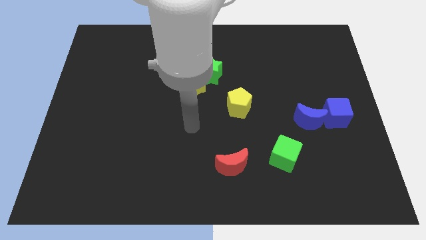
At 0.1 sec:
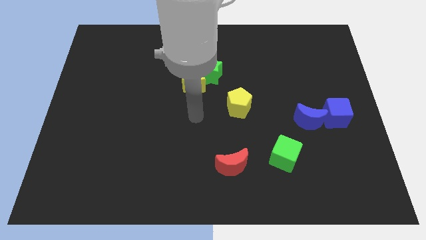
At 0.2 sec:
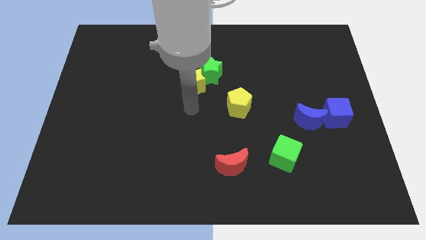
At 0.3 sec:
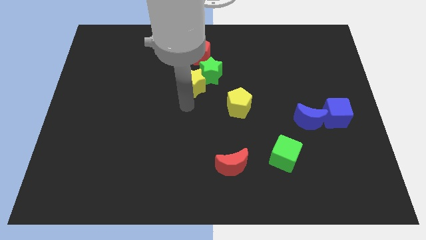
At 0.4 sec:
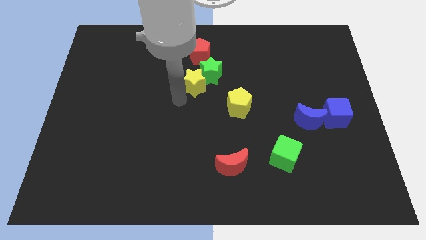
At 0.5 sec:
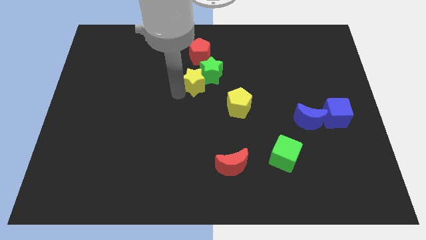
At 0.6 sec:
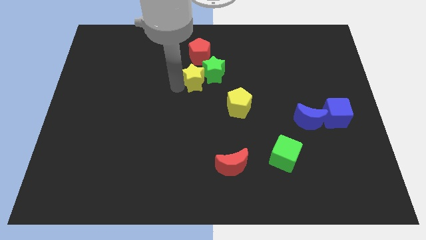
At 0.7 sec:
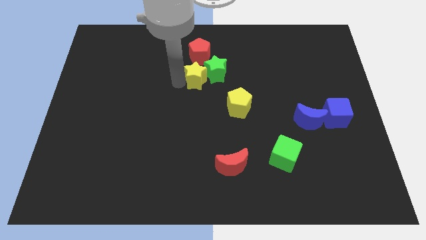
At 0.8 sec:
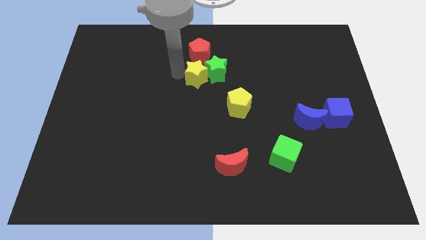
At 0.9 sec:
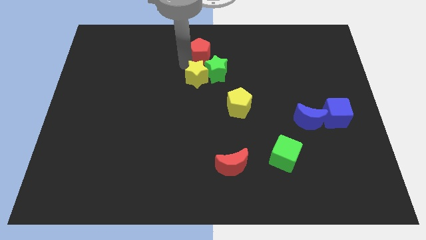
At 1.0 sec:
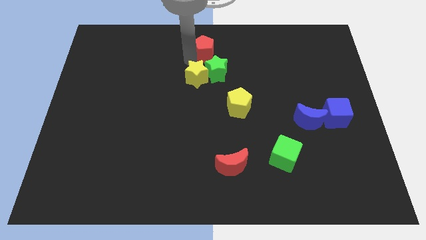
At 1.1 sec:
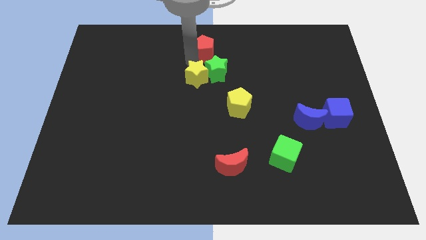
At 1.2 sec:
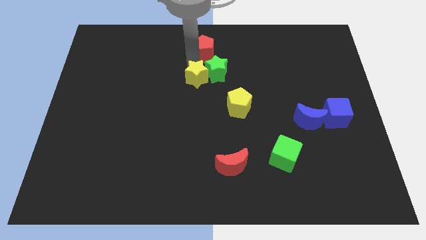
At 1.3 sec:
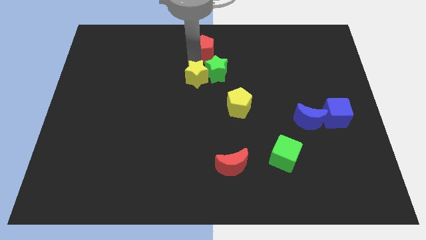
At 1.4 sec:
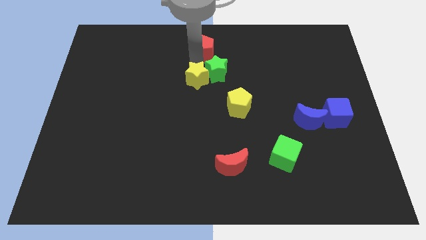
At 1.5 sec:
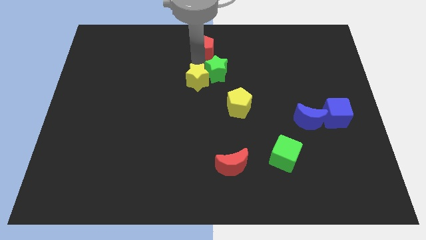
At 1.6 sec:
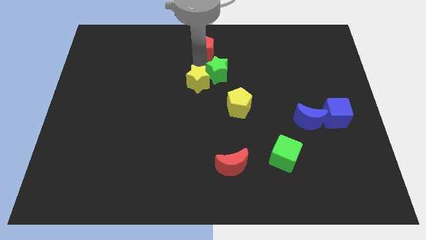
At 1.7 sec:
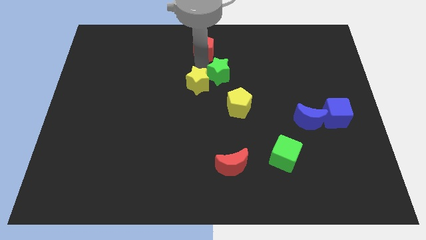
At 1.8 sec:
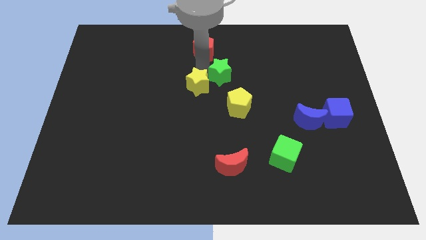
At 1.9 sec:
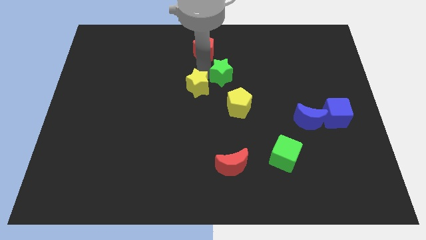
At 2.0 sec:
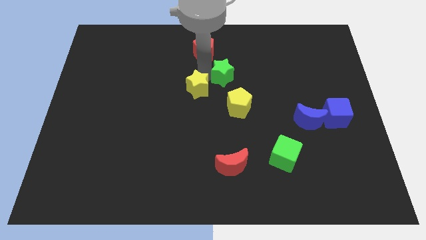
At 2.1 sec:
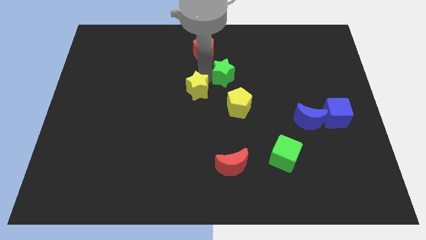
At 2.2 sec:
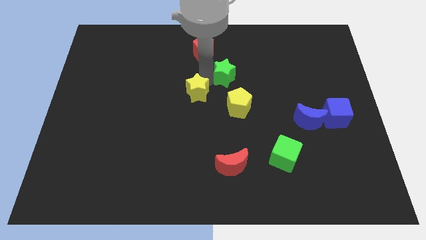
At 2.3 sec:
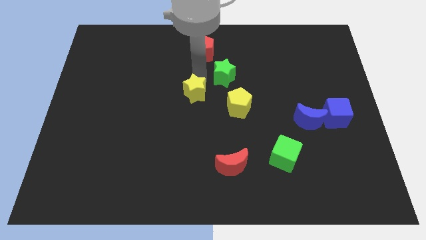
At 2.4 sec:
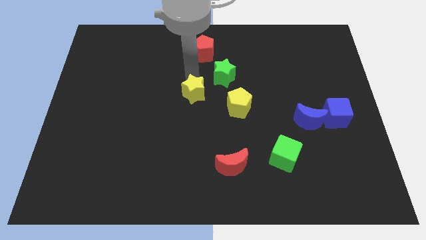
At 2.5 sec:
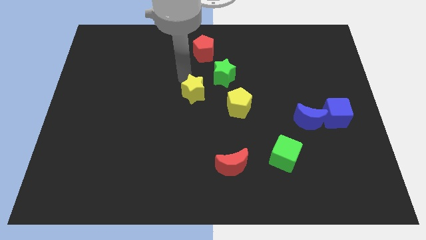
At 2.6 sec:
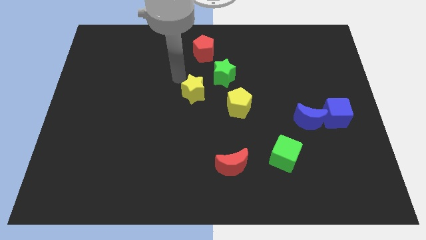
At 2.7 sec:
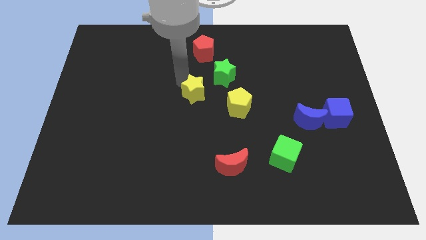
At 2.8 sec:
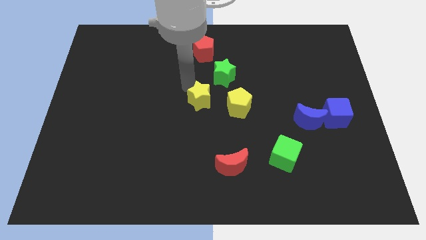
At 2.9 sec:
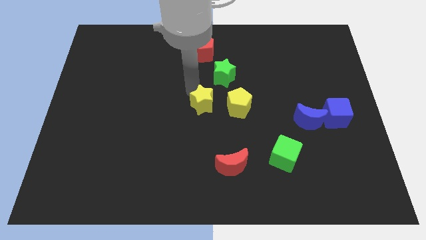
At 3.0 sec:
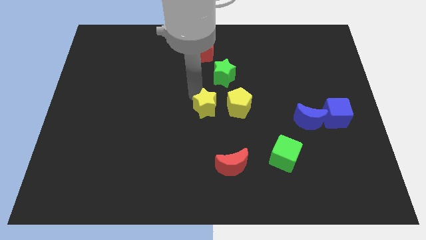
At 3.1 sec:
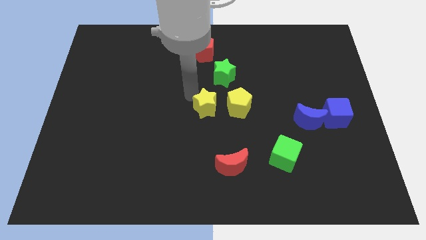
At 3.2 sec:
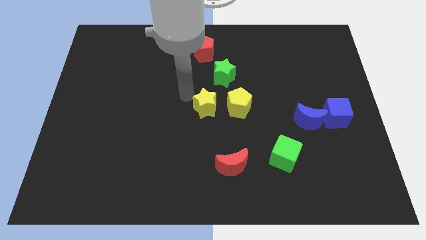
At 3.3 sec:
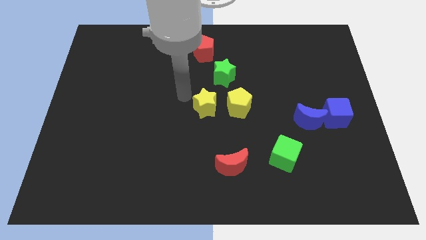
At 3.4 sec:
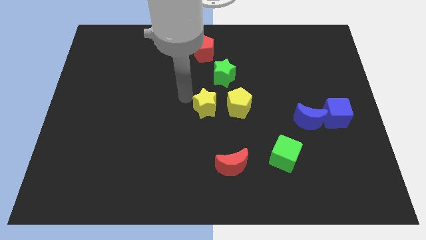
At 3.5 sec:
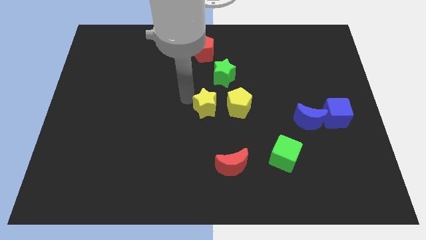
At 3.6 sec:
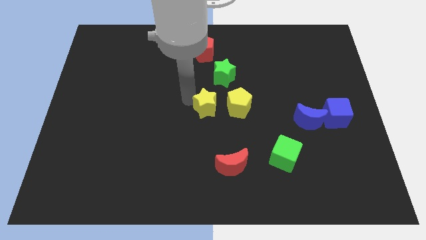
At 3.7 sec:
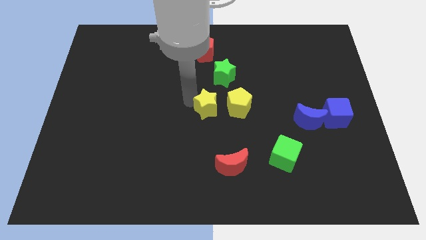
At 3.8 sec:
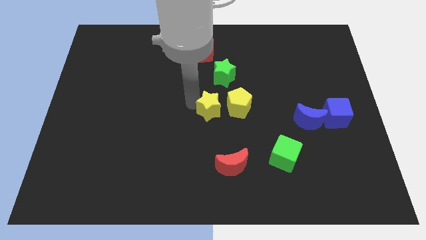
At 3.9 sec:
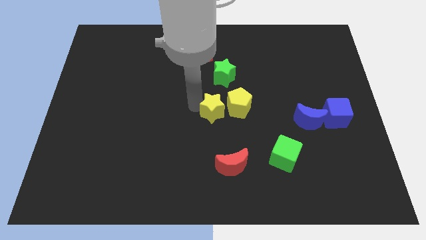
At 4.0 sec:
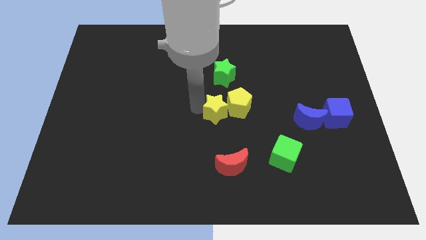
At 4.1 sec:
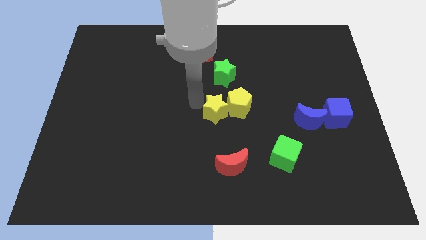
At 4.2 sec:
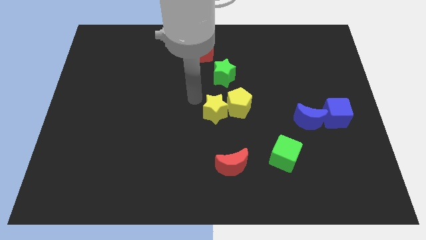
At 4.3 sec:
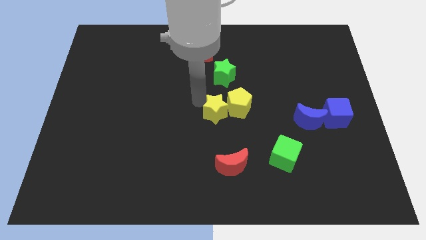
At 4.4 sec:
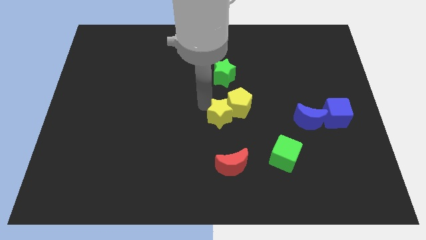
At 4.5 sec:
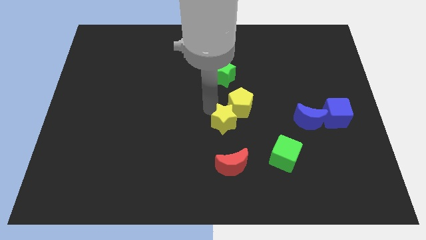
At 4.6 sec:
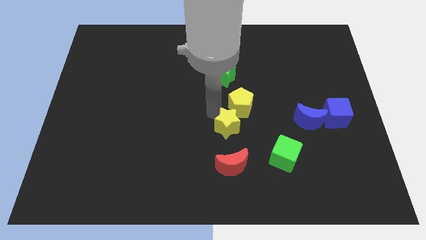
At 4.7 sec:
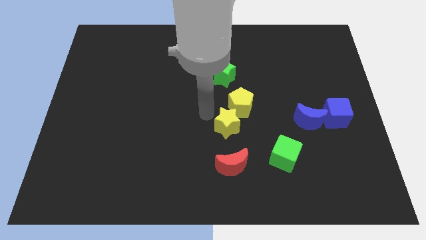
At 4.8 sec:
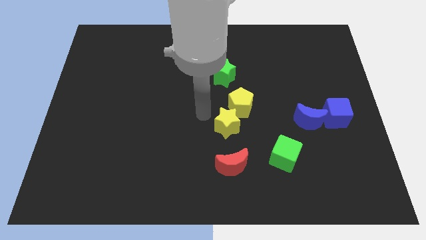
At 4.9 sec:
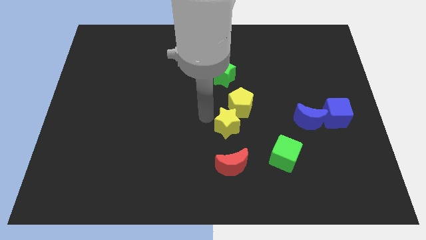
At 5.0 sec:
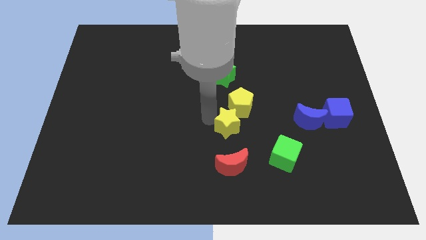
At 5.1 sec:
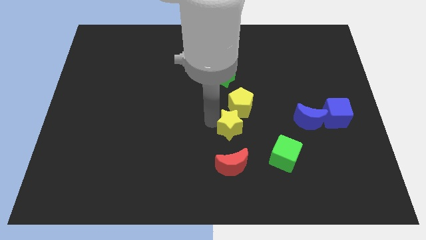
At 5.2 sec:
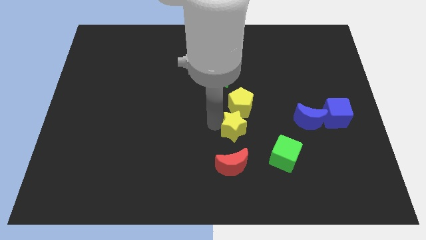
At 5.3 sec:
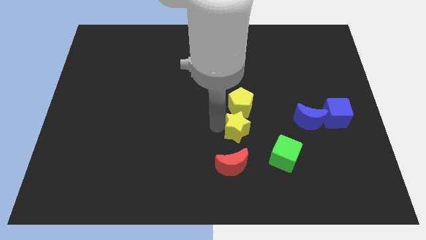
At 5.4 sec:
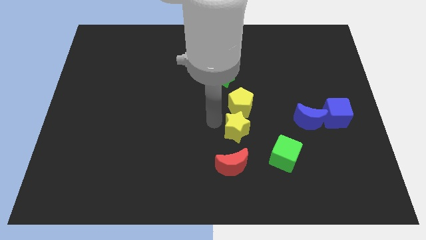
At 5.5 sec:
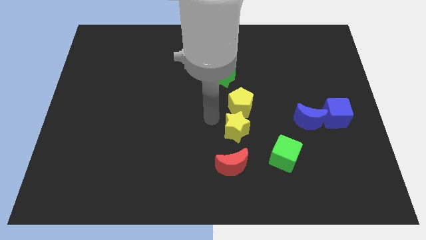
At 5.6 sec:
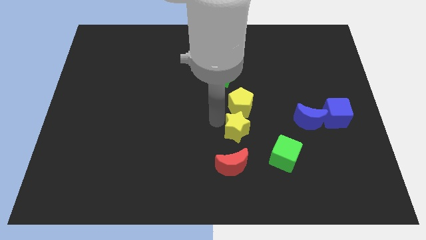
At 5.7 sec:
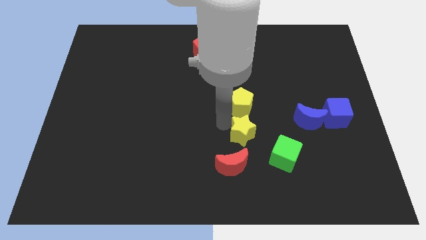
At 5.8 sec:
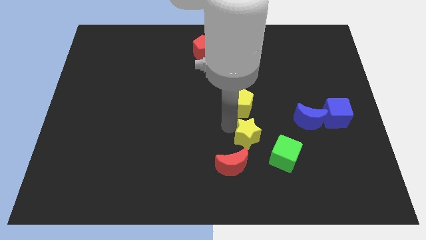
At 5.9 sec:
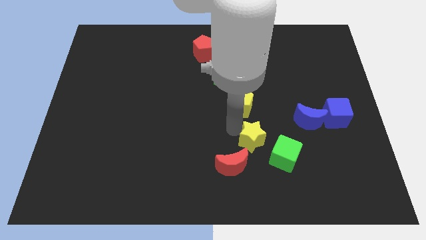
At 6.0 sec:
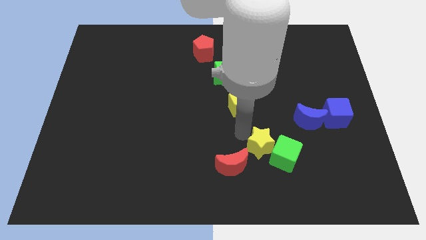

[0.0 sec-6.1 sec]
move the yellow star towards the green cube

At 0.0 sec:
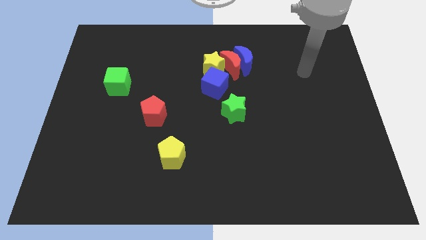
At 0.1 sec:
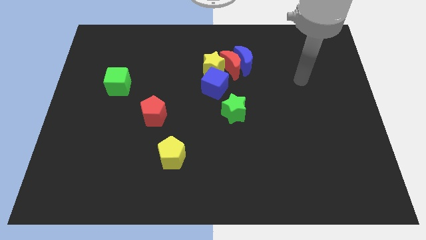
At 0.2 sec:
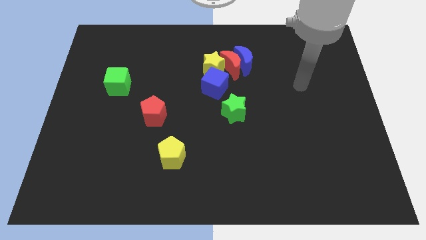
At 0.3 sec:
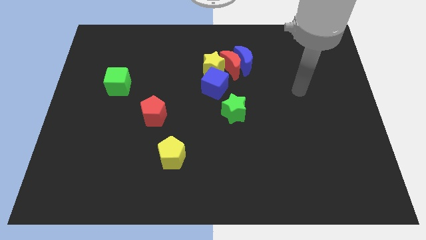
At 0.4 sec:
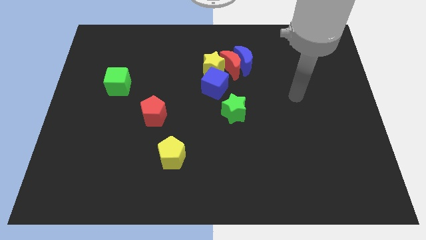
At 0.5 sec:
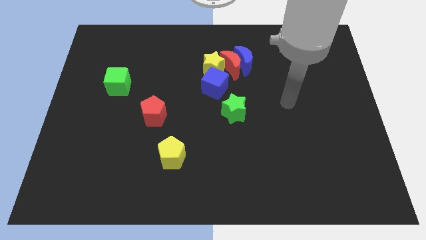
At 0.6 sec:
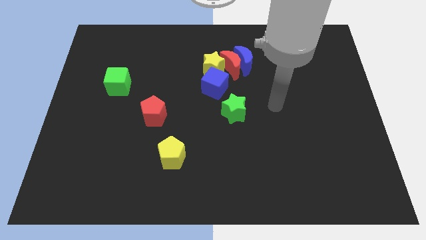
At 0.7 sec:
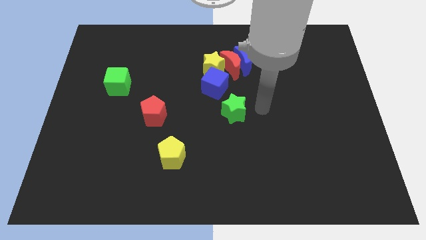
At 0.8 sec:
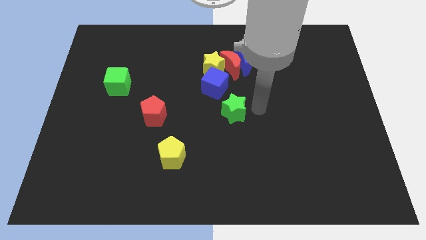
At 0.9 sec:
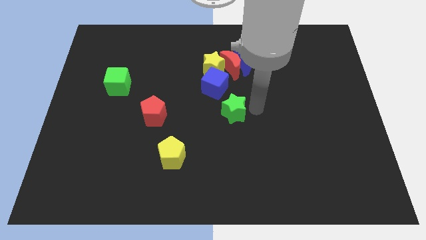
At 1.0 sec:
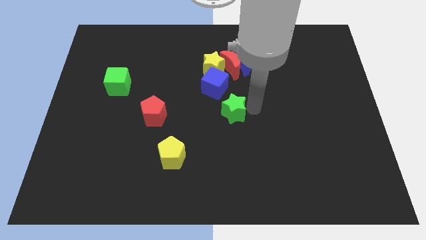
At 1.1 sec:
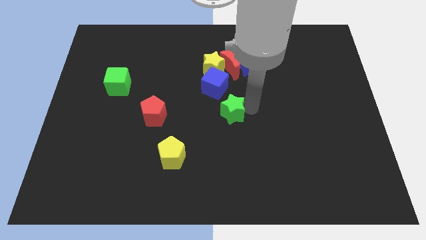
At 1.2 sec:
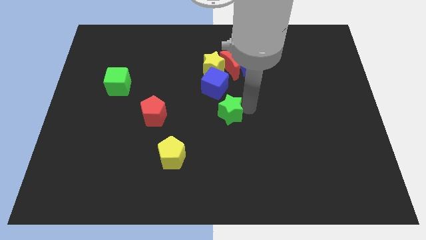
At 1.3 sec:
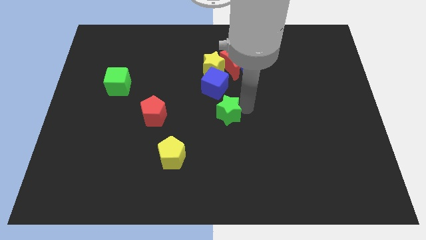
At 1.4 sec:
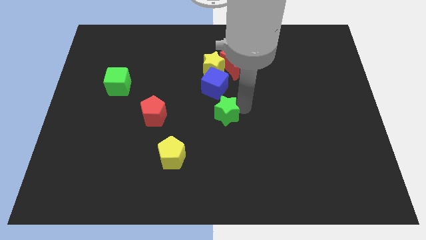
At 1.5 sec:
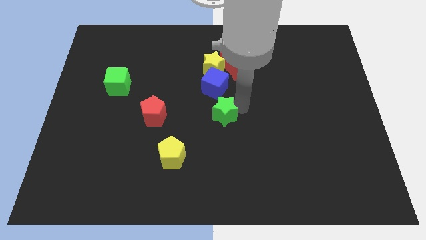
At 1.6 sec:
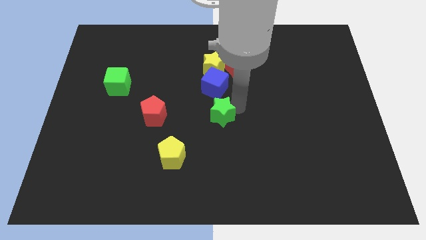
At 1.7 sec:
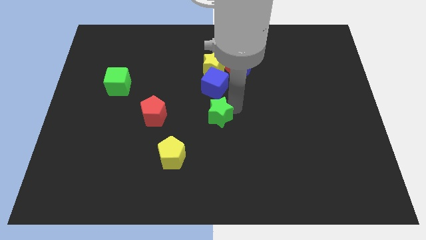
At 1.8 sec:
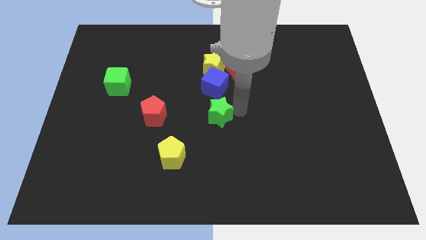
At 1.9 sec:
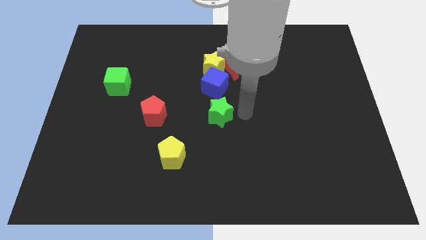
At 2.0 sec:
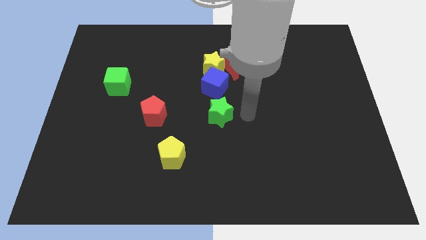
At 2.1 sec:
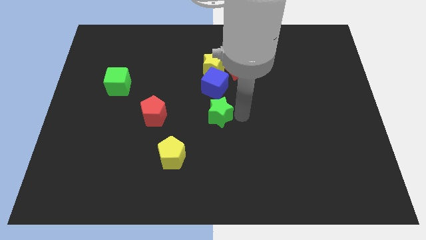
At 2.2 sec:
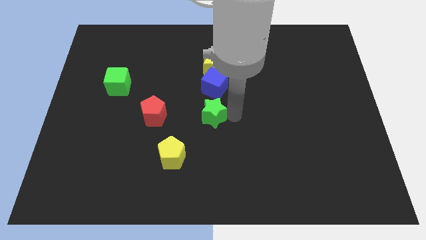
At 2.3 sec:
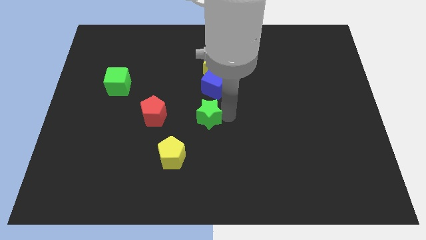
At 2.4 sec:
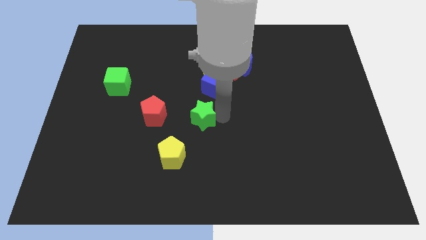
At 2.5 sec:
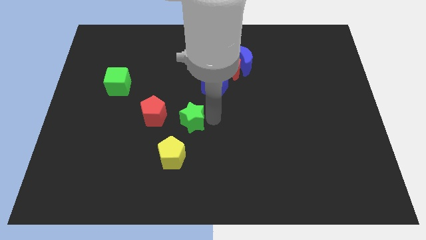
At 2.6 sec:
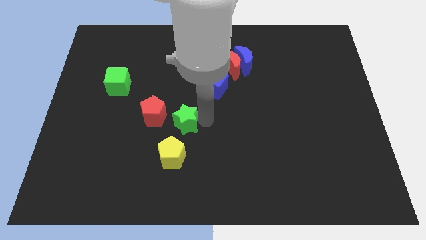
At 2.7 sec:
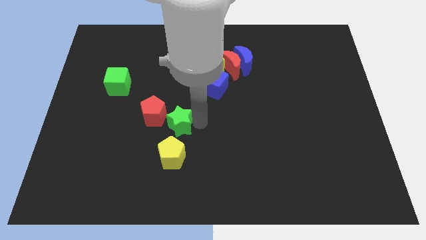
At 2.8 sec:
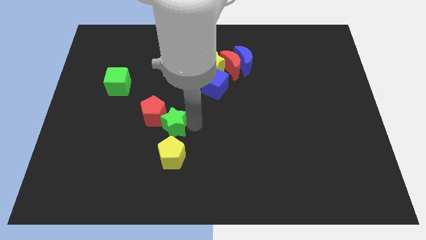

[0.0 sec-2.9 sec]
push the green star close to the red pentagon
